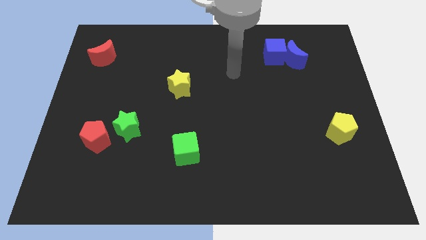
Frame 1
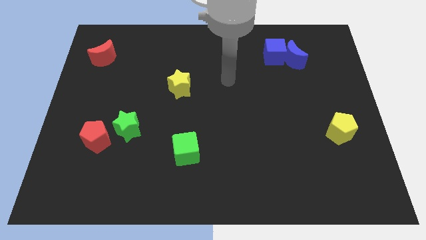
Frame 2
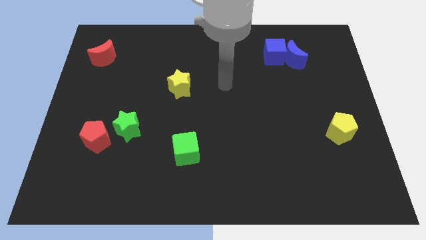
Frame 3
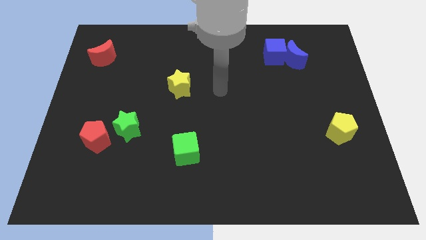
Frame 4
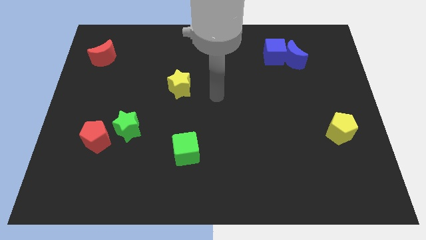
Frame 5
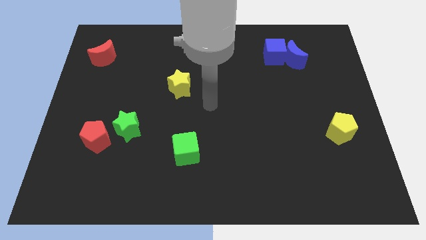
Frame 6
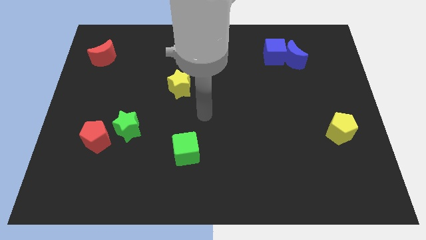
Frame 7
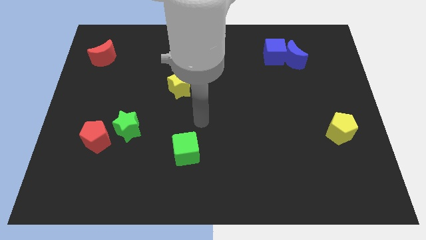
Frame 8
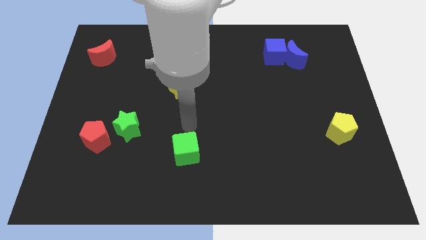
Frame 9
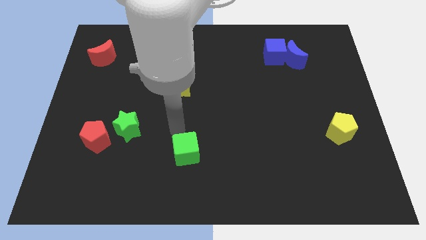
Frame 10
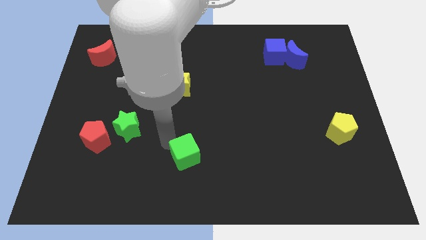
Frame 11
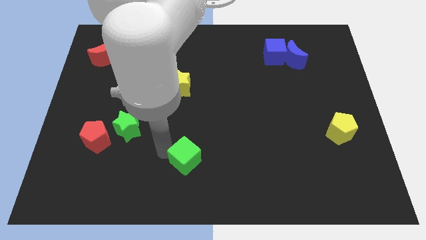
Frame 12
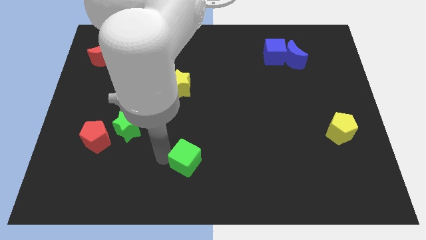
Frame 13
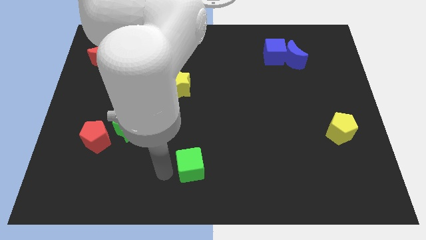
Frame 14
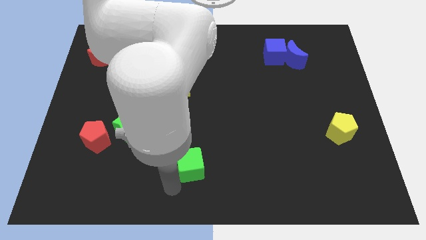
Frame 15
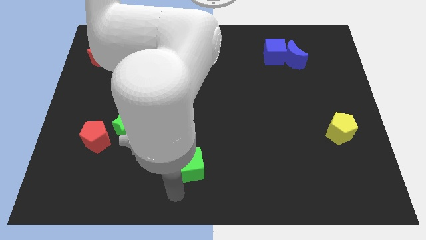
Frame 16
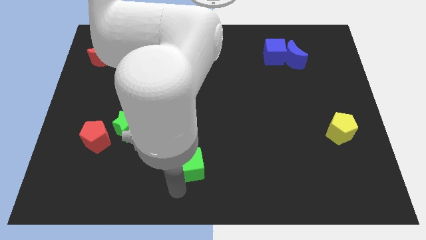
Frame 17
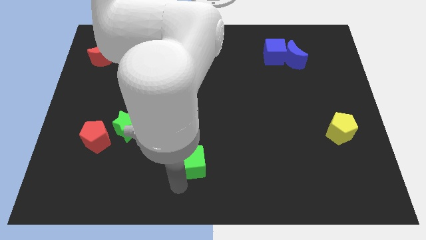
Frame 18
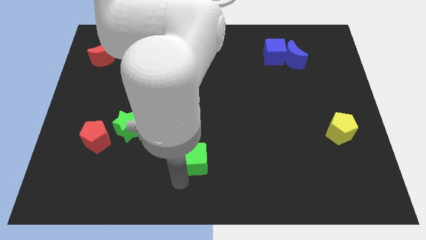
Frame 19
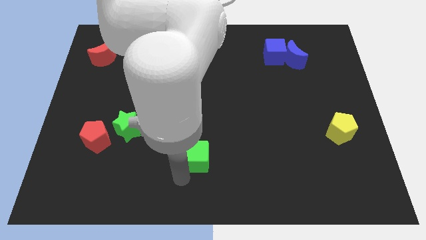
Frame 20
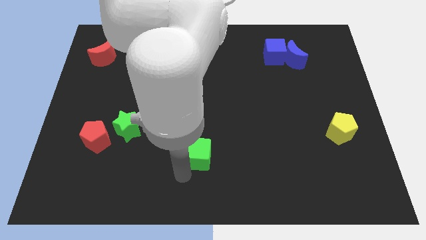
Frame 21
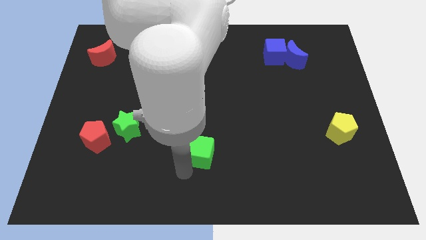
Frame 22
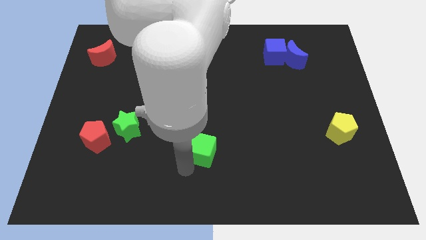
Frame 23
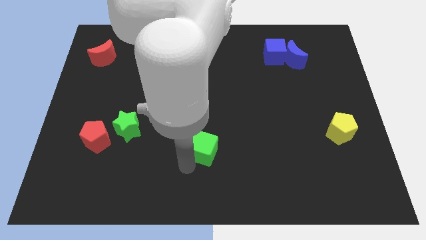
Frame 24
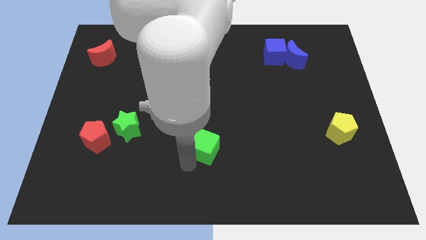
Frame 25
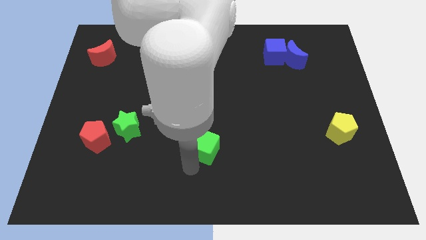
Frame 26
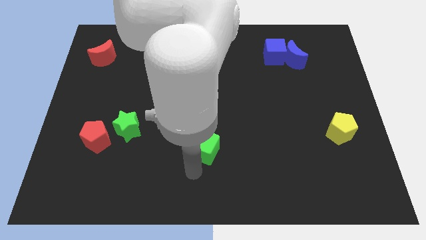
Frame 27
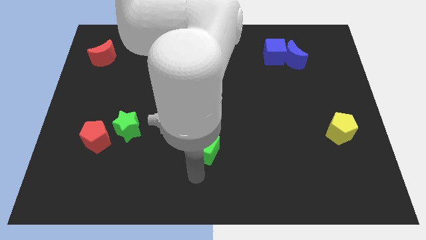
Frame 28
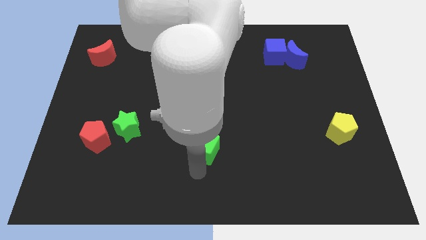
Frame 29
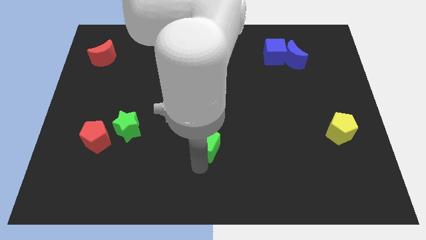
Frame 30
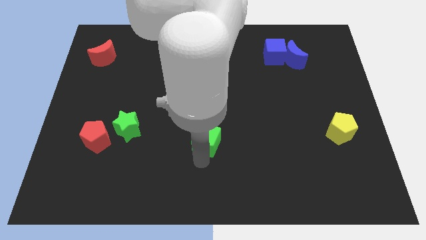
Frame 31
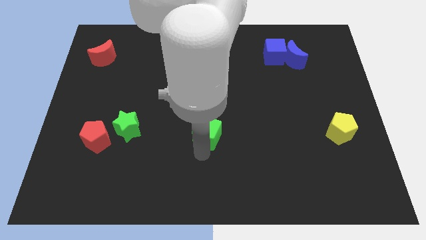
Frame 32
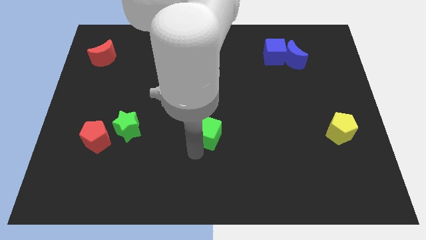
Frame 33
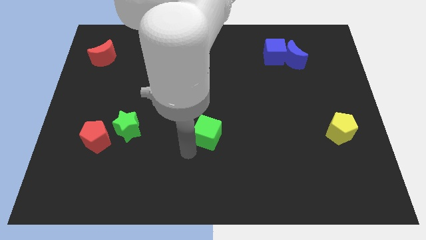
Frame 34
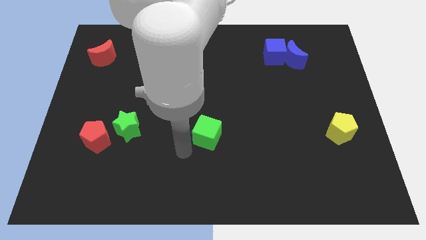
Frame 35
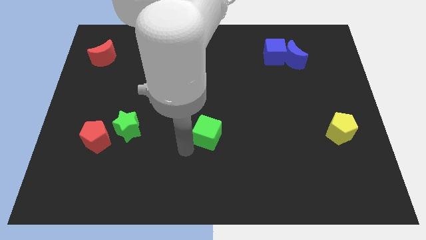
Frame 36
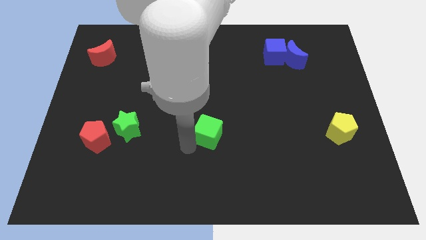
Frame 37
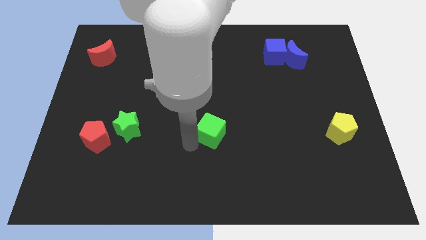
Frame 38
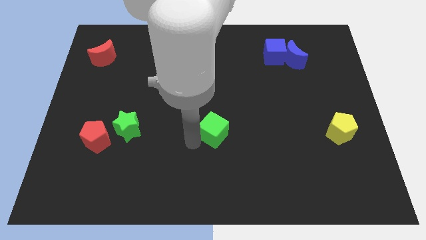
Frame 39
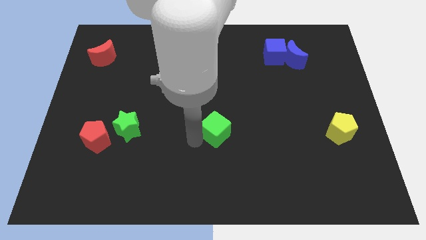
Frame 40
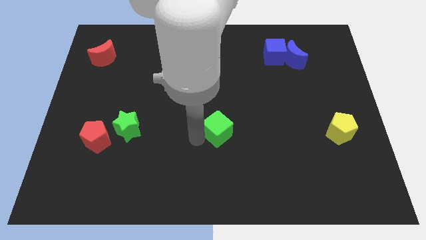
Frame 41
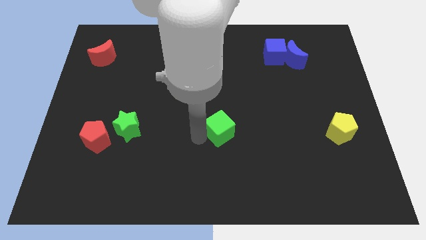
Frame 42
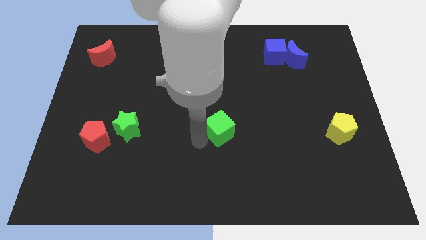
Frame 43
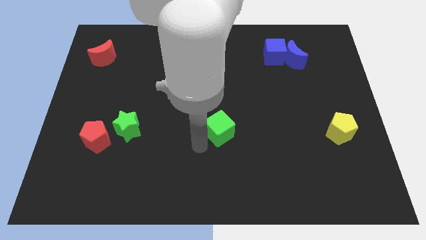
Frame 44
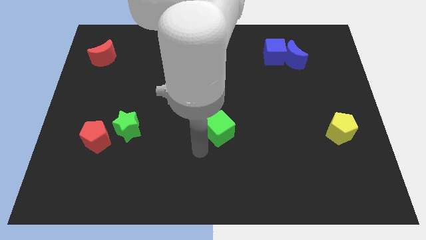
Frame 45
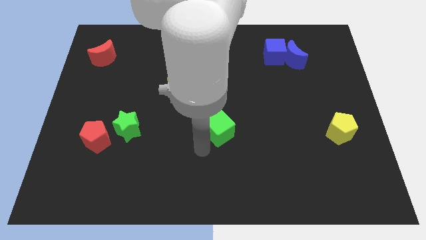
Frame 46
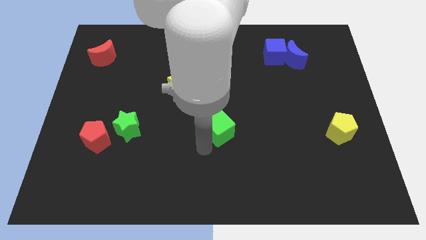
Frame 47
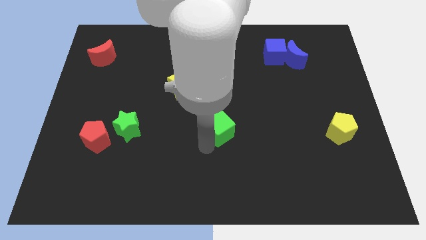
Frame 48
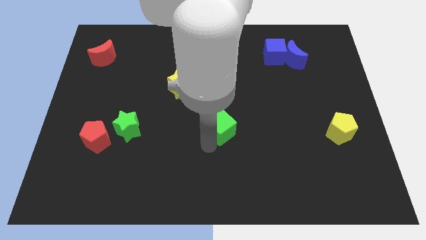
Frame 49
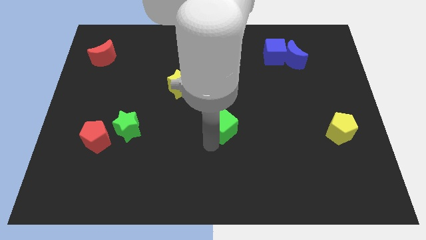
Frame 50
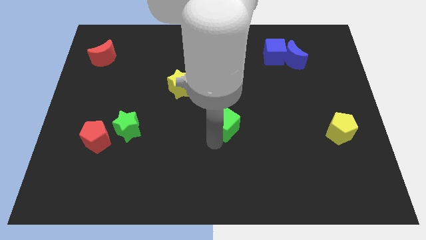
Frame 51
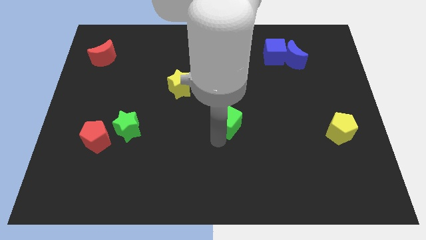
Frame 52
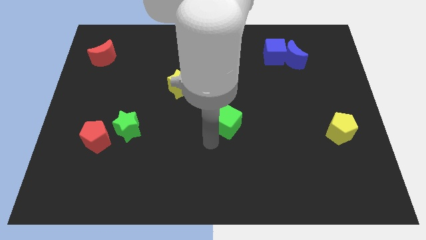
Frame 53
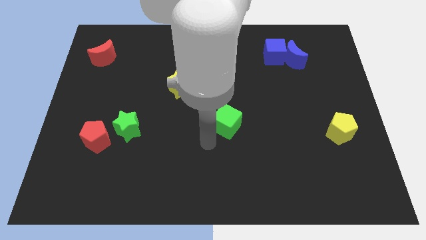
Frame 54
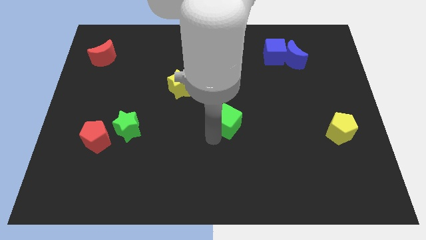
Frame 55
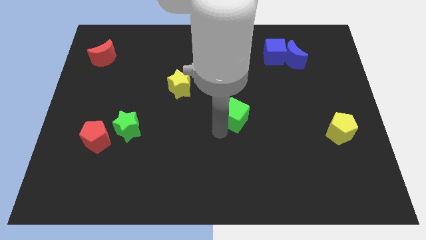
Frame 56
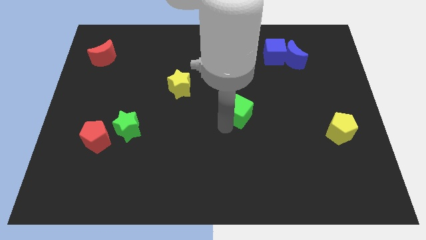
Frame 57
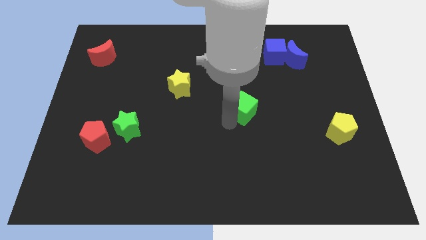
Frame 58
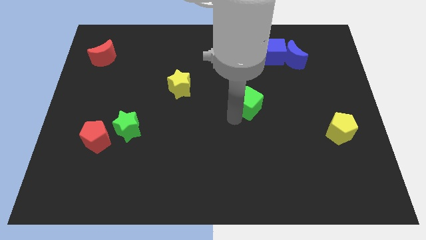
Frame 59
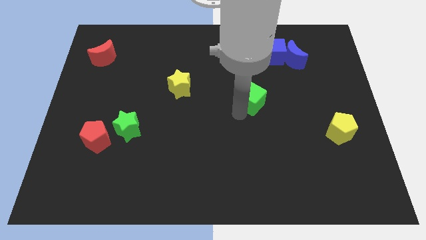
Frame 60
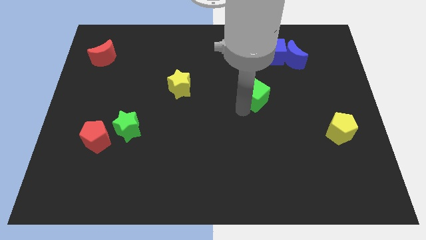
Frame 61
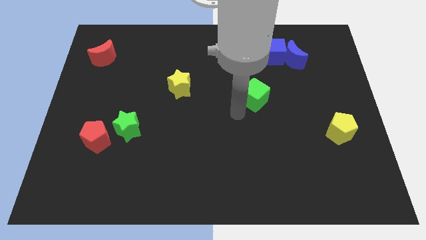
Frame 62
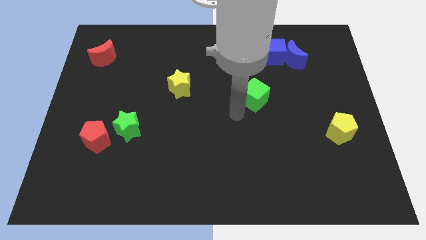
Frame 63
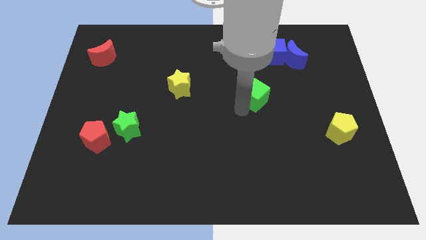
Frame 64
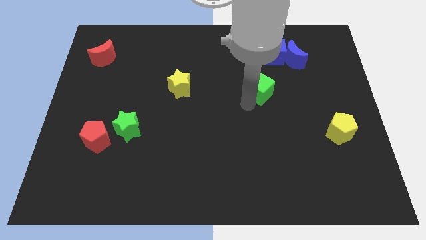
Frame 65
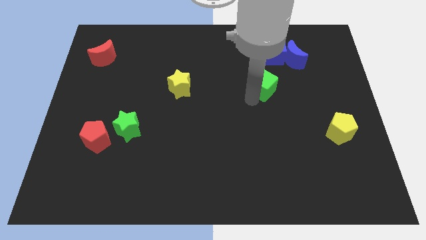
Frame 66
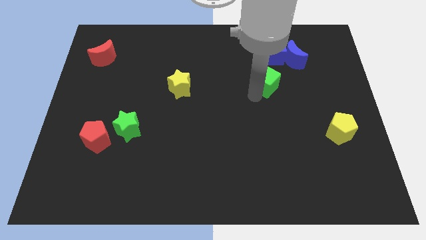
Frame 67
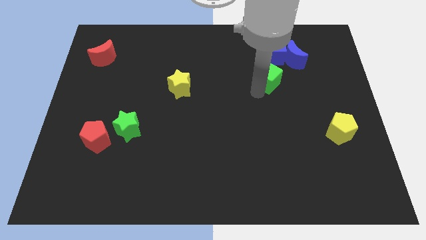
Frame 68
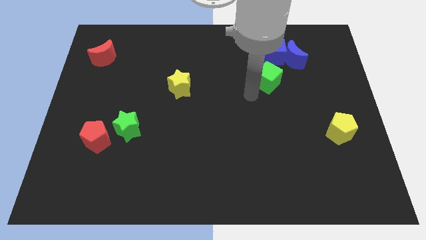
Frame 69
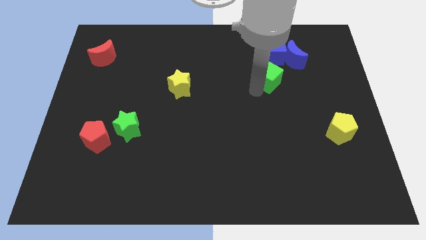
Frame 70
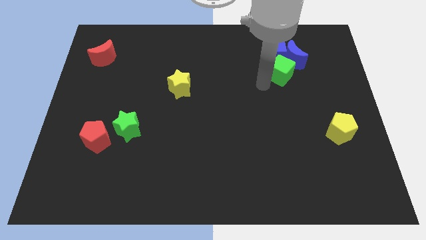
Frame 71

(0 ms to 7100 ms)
push the green cube towards the blue moon
